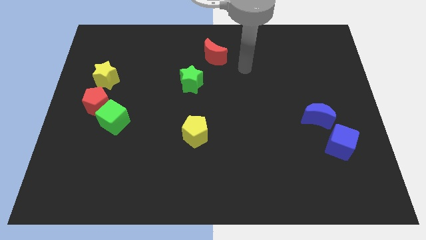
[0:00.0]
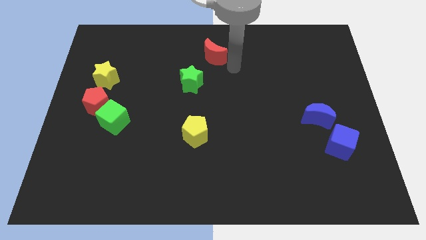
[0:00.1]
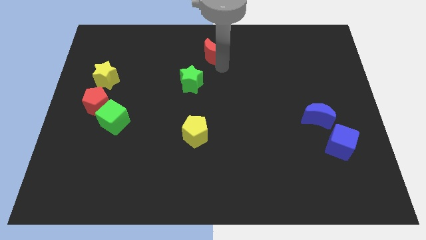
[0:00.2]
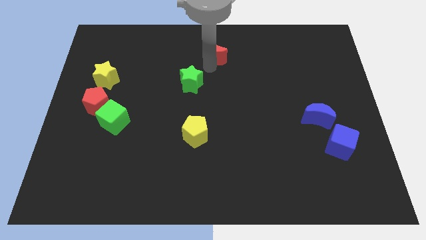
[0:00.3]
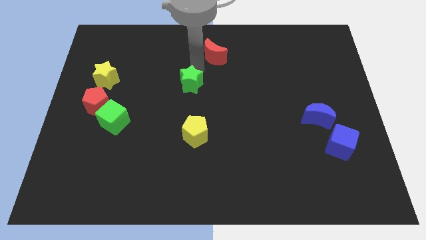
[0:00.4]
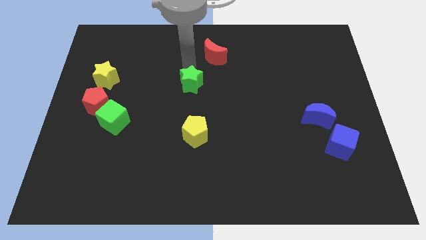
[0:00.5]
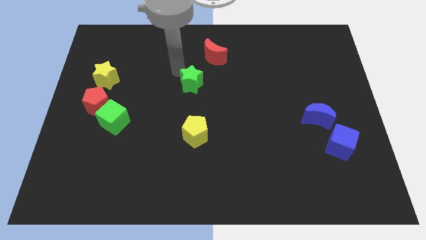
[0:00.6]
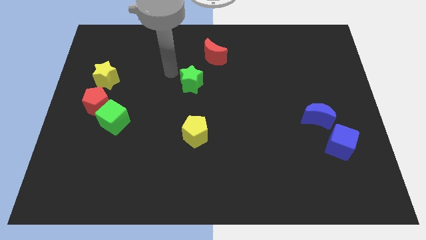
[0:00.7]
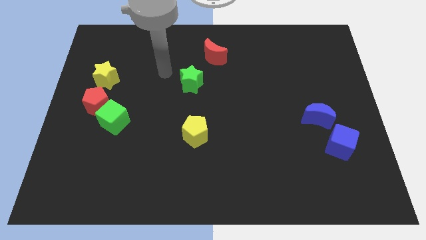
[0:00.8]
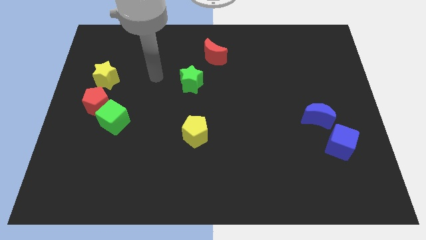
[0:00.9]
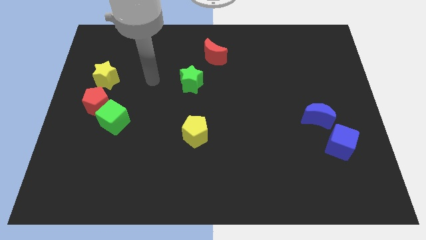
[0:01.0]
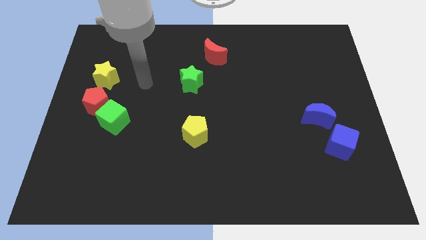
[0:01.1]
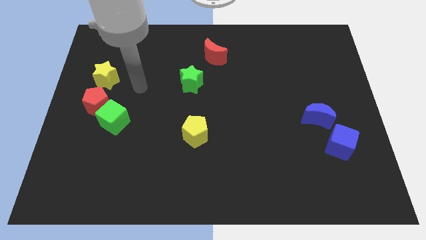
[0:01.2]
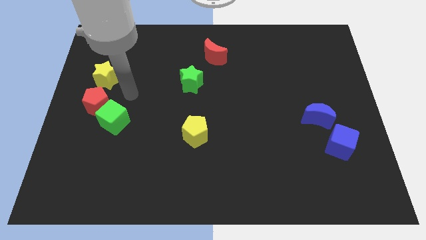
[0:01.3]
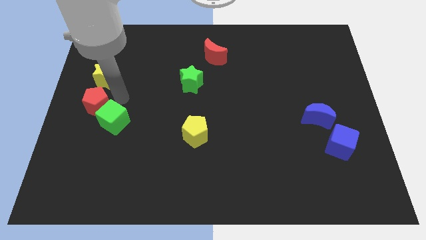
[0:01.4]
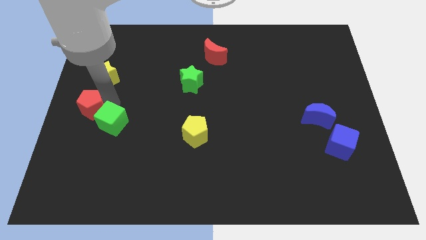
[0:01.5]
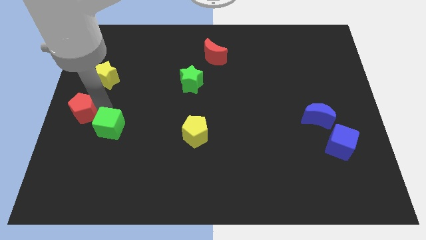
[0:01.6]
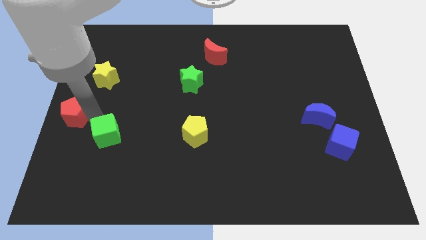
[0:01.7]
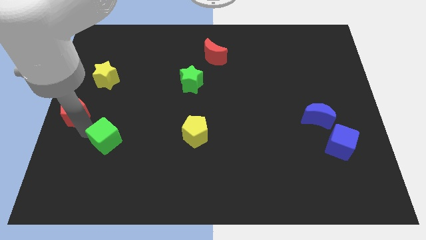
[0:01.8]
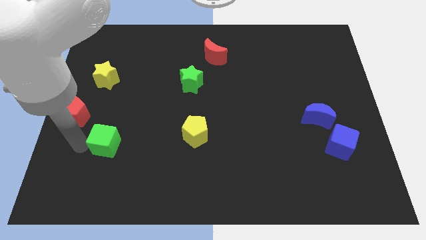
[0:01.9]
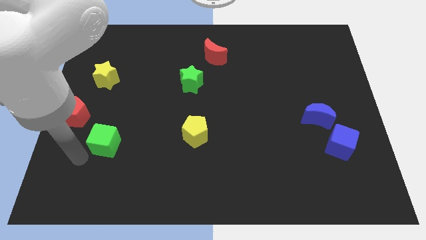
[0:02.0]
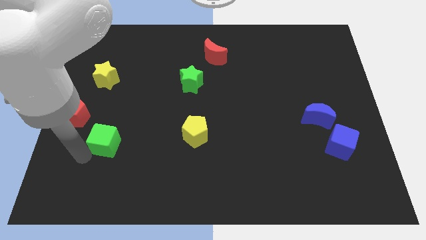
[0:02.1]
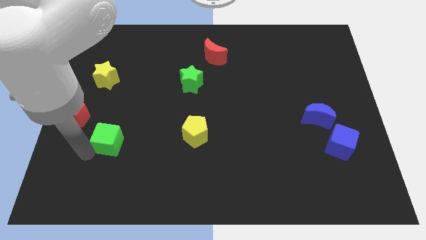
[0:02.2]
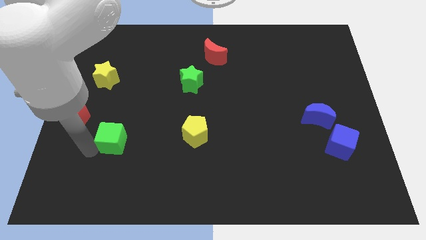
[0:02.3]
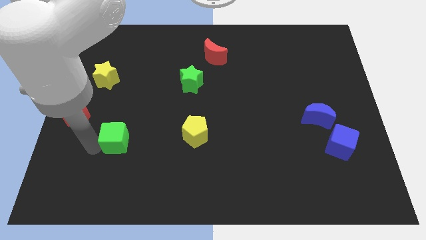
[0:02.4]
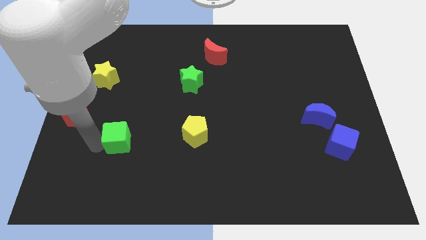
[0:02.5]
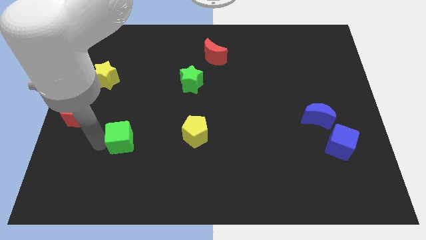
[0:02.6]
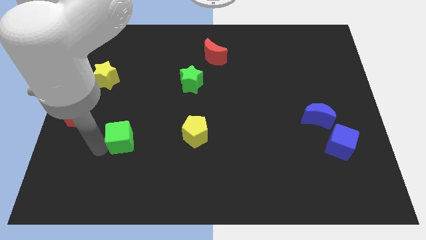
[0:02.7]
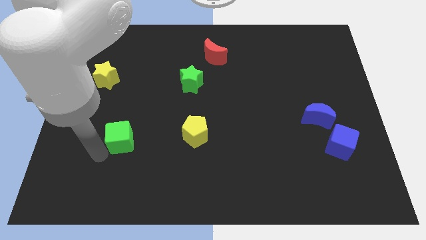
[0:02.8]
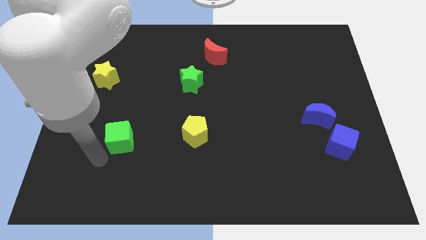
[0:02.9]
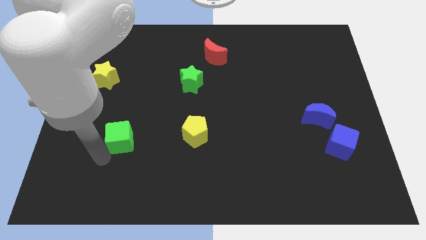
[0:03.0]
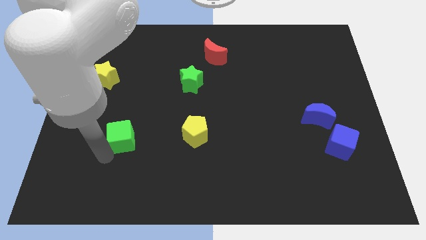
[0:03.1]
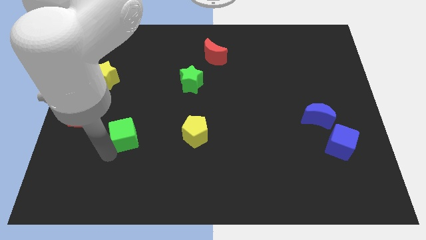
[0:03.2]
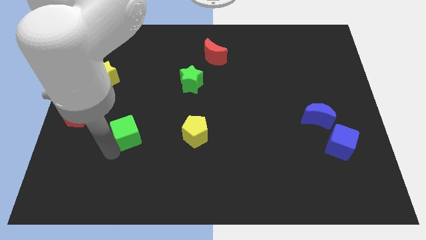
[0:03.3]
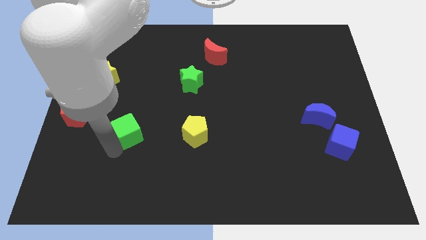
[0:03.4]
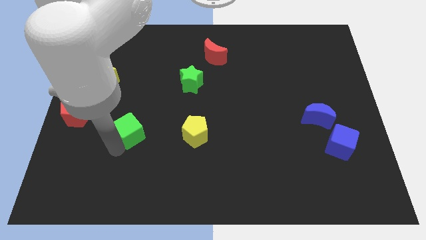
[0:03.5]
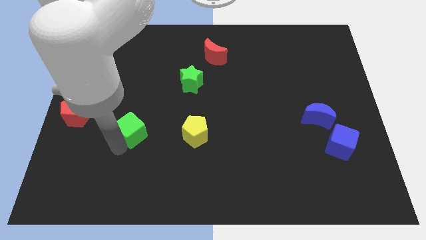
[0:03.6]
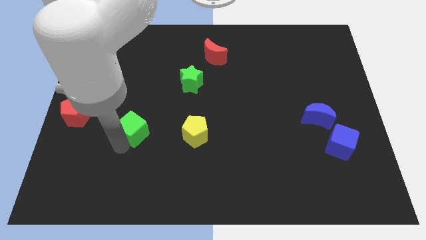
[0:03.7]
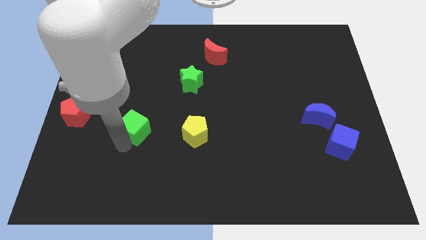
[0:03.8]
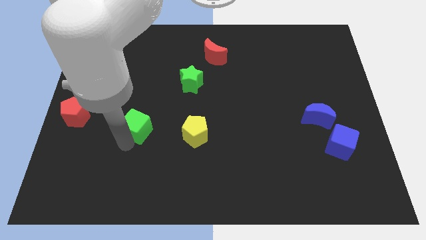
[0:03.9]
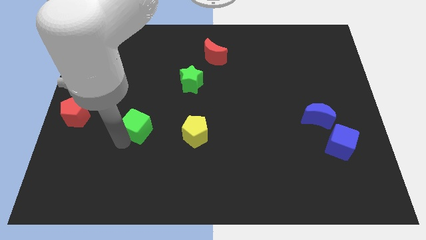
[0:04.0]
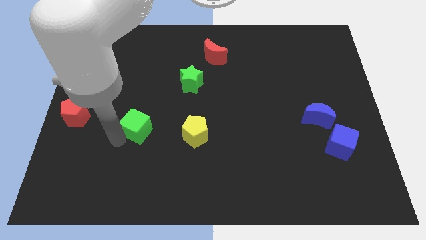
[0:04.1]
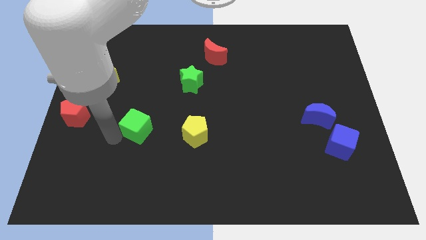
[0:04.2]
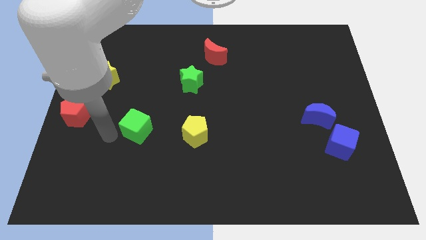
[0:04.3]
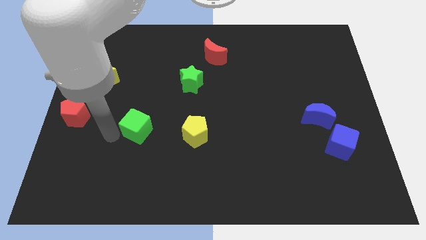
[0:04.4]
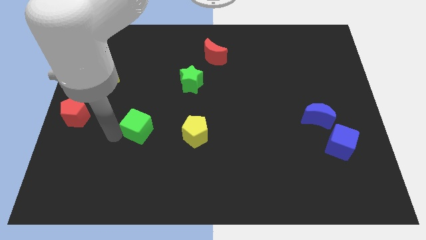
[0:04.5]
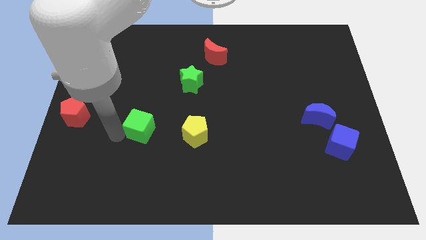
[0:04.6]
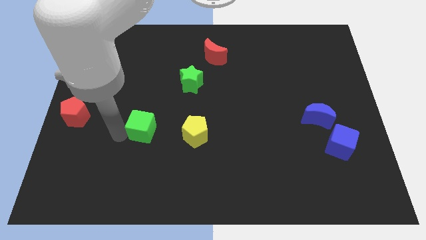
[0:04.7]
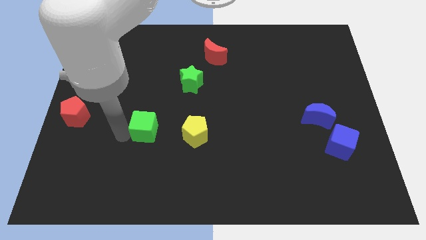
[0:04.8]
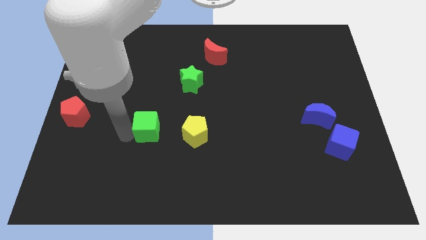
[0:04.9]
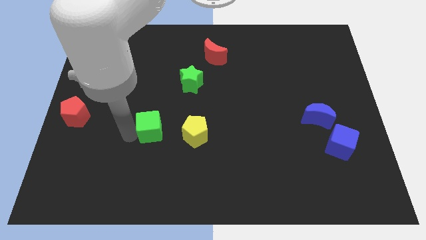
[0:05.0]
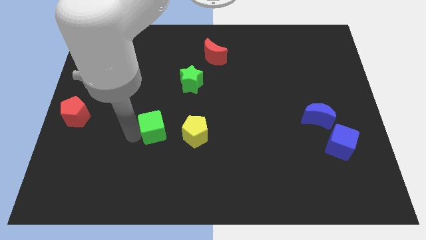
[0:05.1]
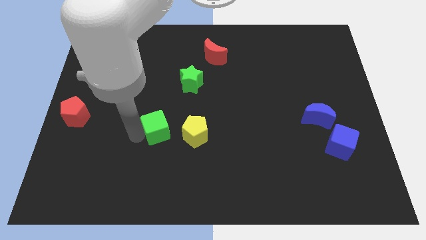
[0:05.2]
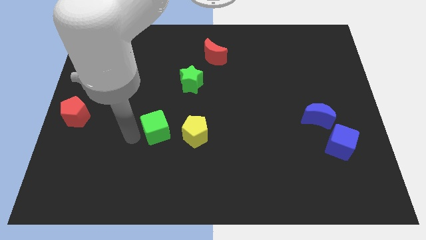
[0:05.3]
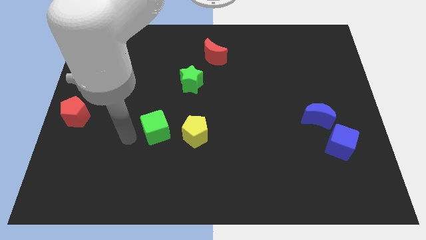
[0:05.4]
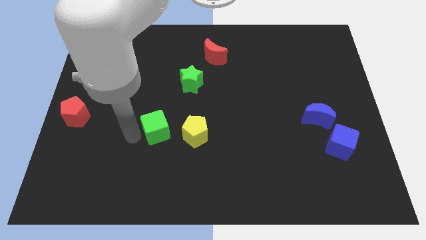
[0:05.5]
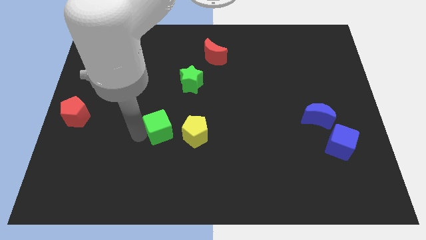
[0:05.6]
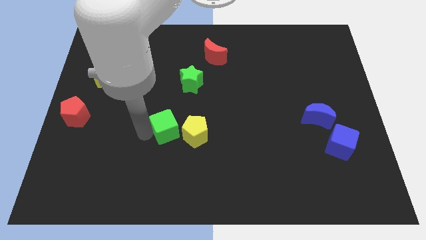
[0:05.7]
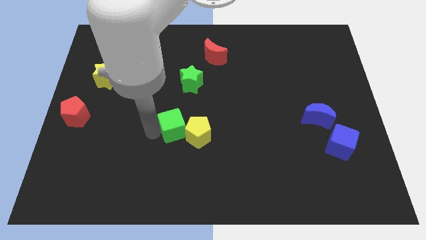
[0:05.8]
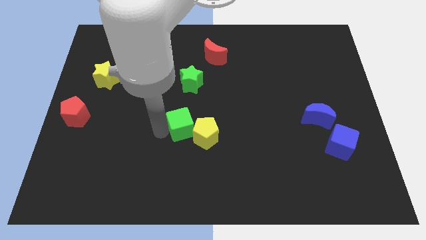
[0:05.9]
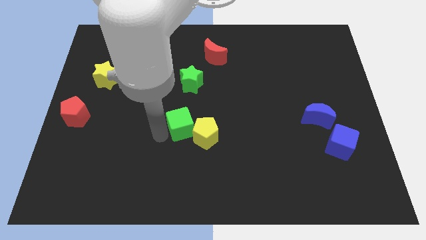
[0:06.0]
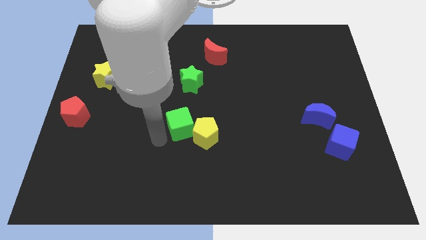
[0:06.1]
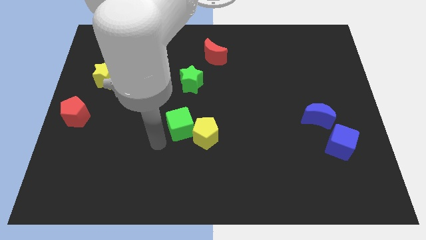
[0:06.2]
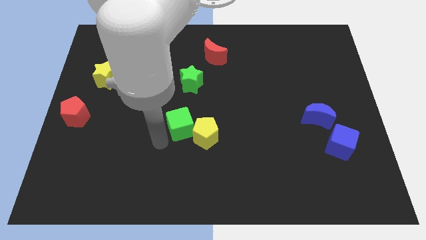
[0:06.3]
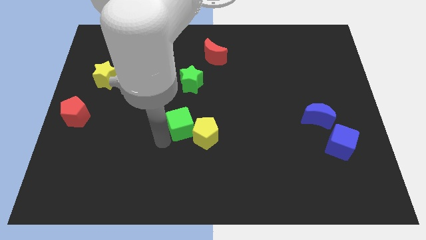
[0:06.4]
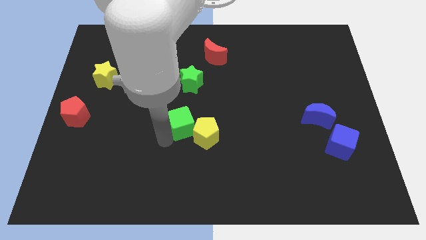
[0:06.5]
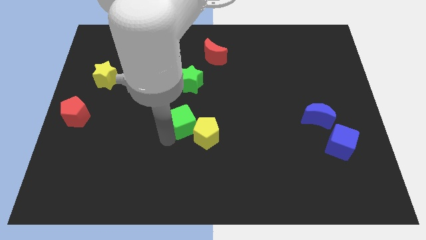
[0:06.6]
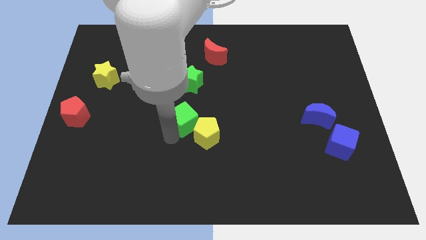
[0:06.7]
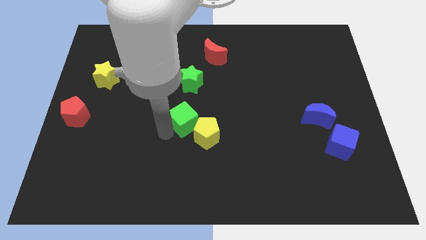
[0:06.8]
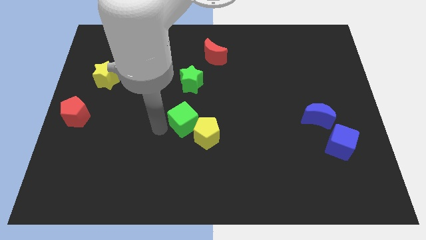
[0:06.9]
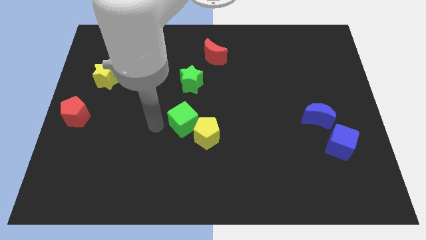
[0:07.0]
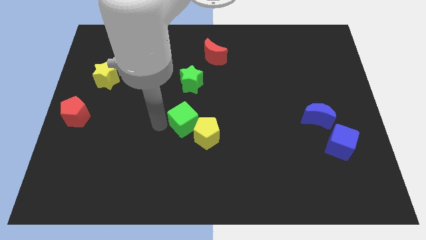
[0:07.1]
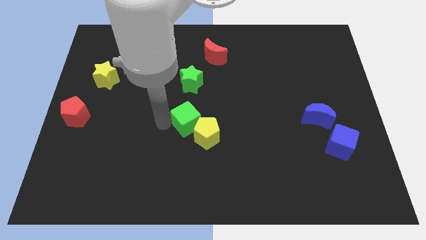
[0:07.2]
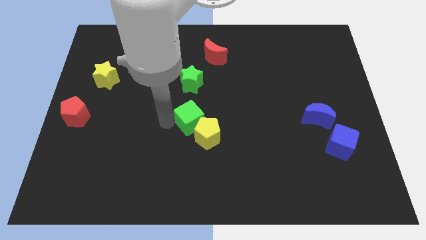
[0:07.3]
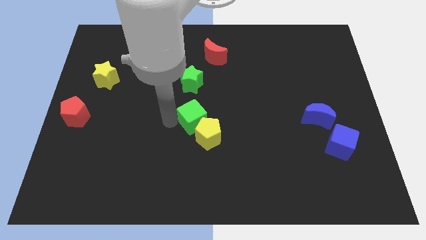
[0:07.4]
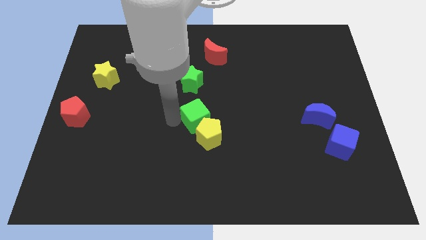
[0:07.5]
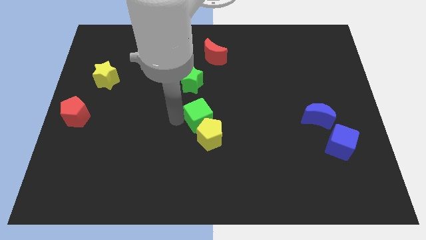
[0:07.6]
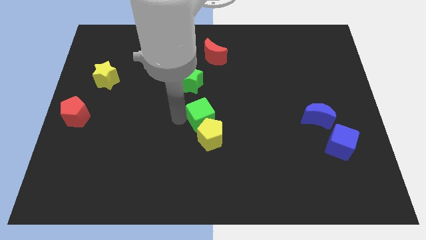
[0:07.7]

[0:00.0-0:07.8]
slide the green cube right

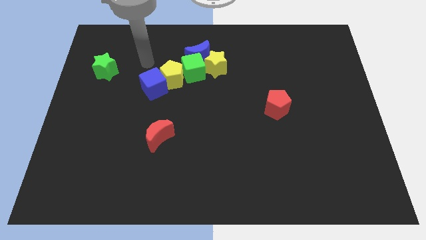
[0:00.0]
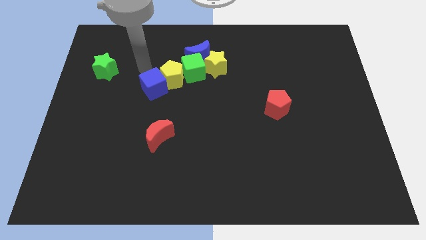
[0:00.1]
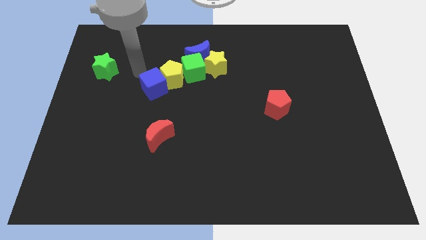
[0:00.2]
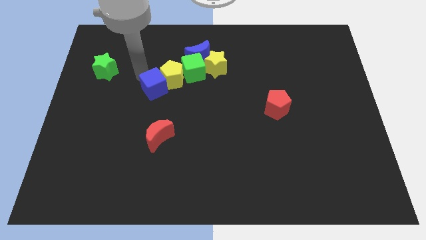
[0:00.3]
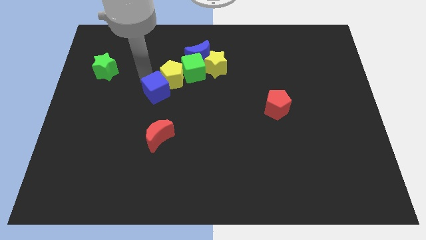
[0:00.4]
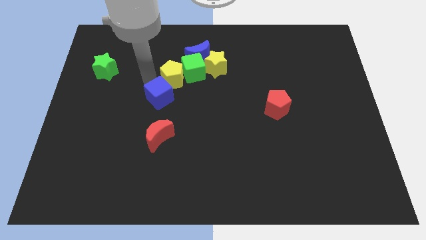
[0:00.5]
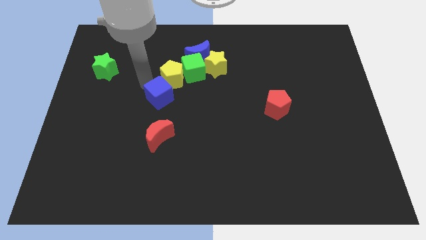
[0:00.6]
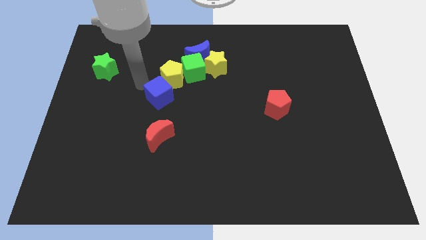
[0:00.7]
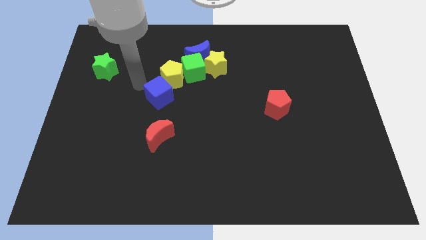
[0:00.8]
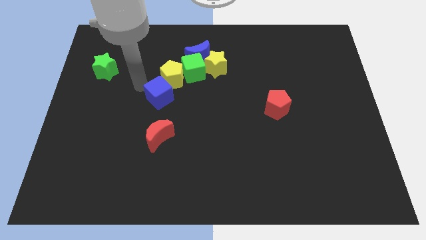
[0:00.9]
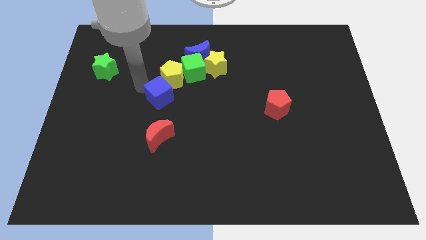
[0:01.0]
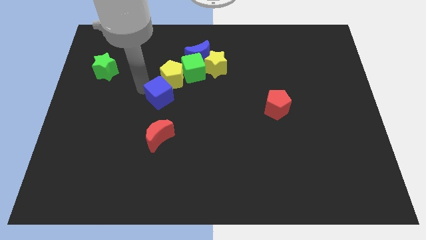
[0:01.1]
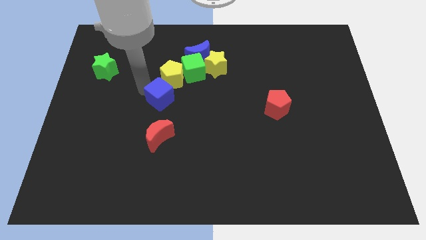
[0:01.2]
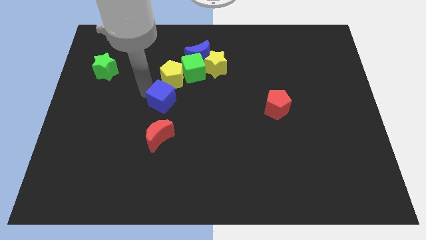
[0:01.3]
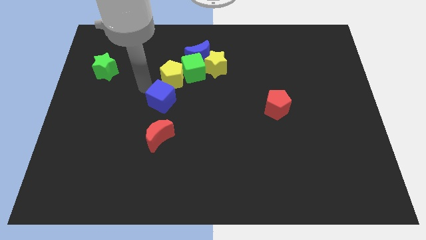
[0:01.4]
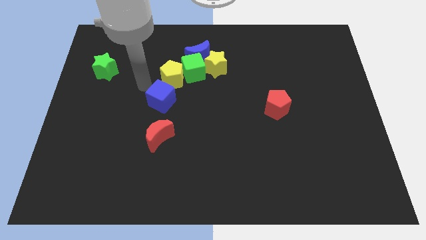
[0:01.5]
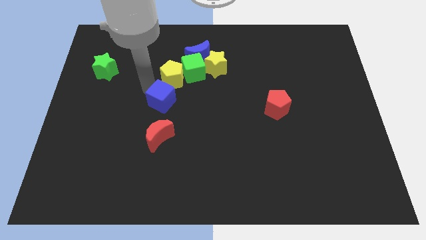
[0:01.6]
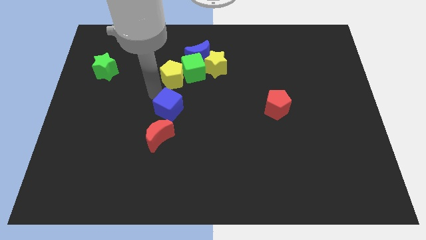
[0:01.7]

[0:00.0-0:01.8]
move the blue cube down and right diagonally somewhat
